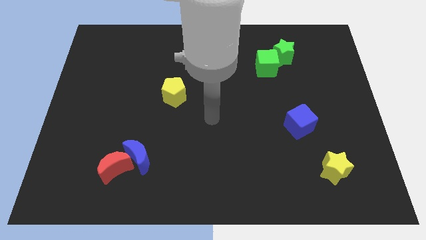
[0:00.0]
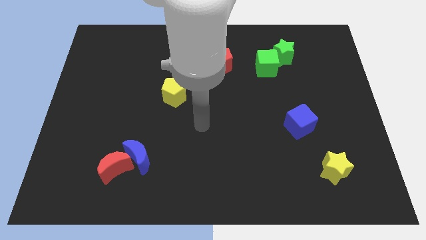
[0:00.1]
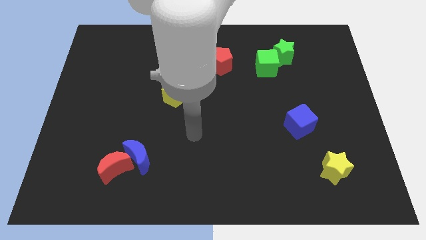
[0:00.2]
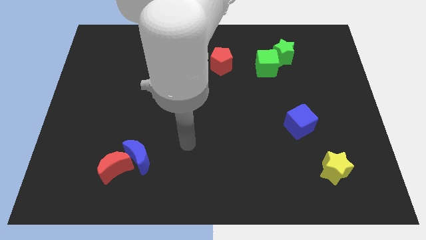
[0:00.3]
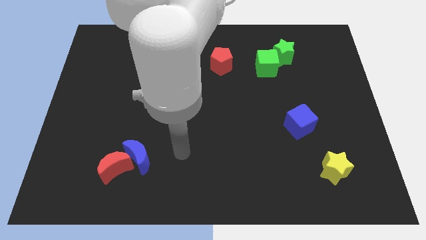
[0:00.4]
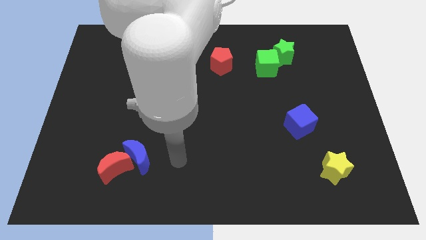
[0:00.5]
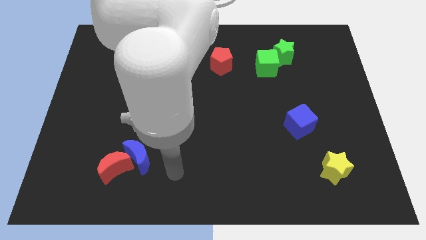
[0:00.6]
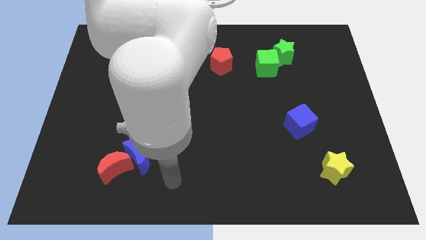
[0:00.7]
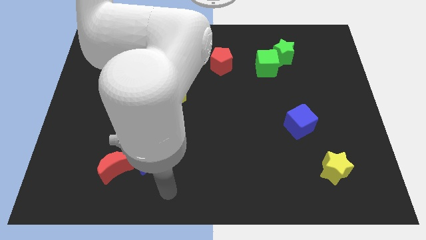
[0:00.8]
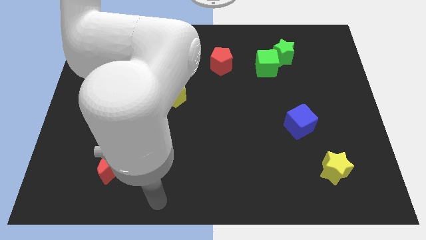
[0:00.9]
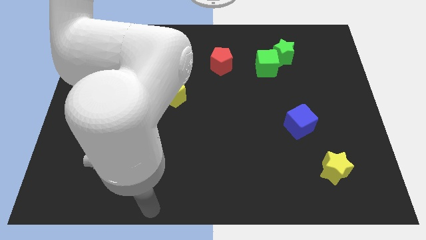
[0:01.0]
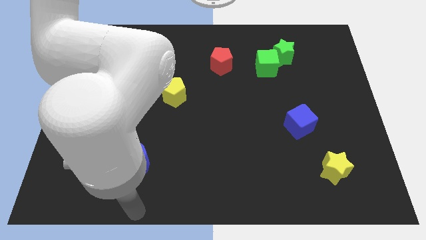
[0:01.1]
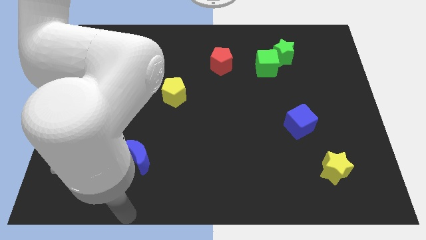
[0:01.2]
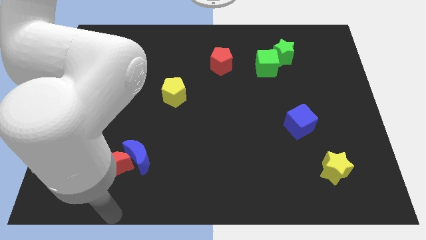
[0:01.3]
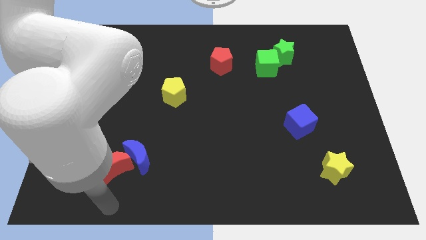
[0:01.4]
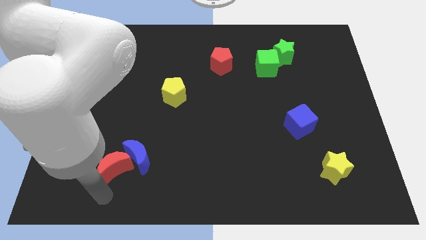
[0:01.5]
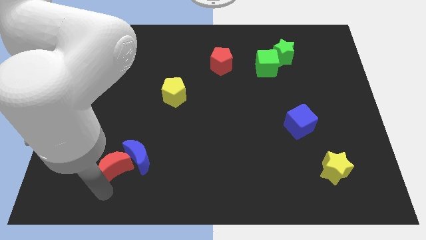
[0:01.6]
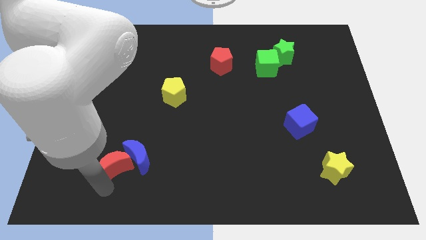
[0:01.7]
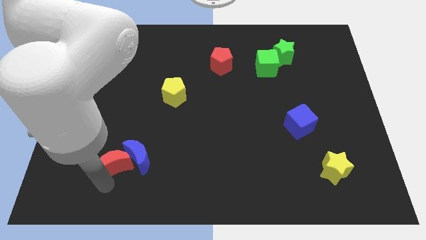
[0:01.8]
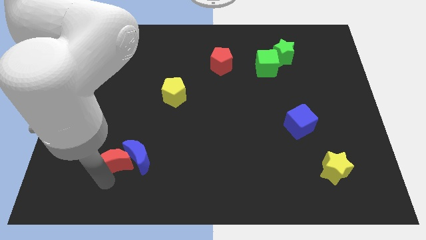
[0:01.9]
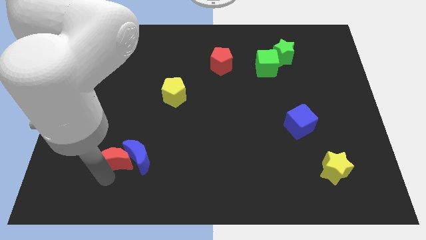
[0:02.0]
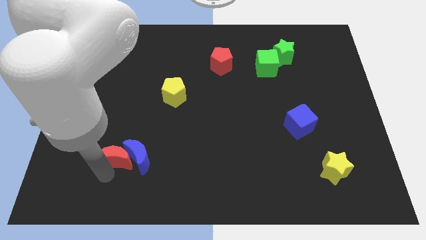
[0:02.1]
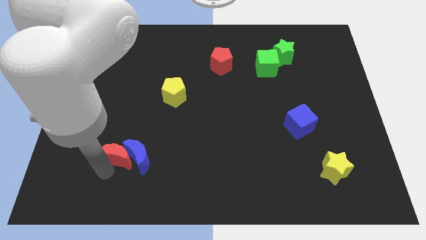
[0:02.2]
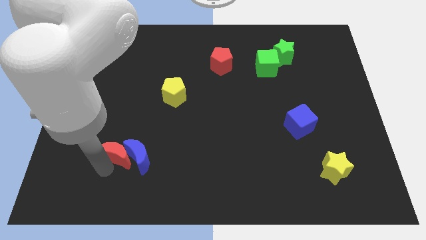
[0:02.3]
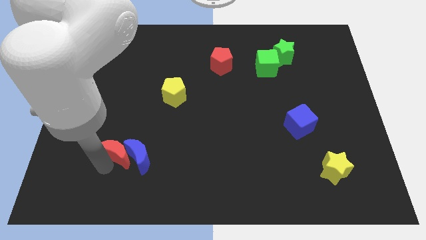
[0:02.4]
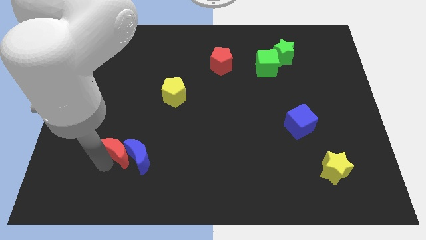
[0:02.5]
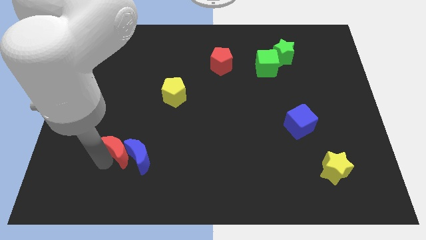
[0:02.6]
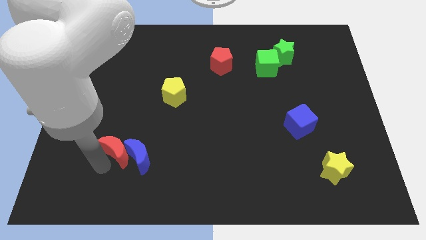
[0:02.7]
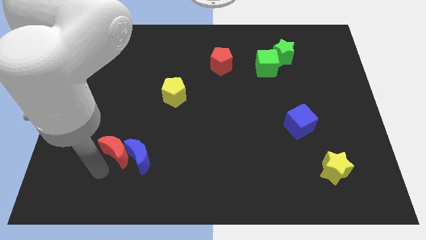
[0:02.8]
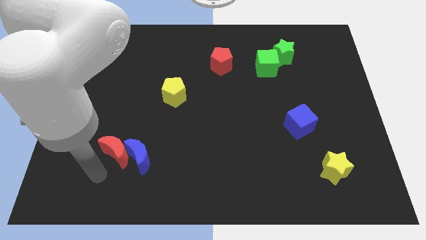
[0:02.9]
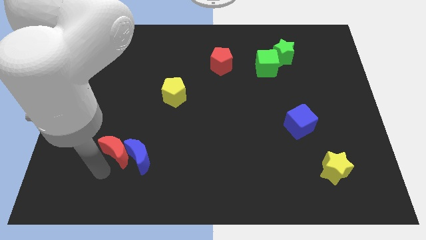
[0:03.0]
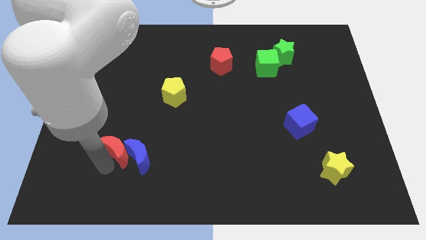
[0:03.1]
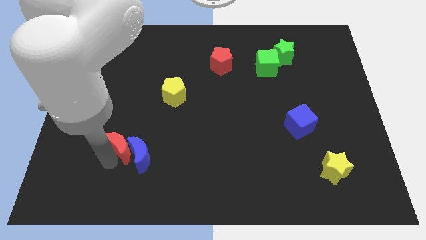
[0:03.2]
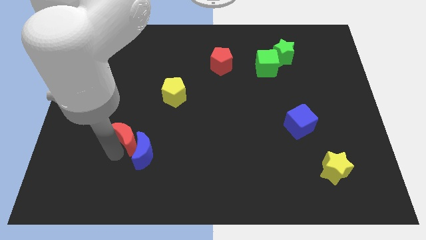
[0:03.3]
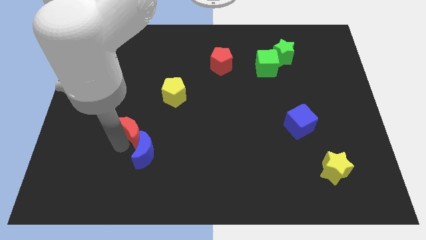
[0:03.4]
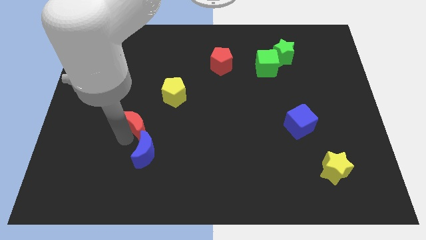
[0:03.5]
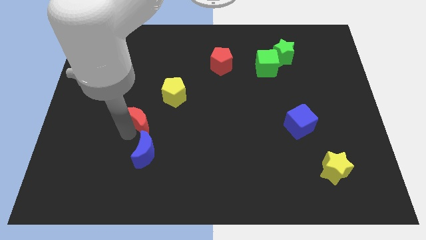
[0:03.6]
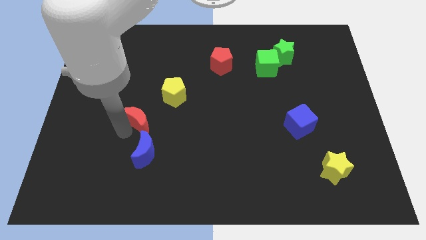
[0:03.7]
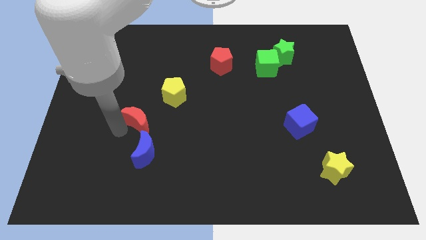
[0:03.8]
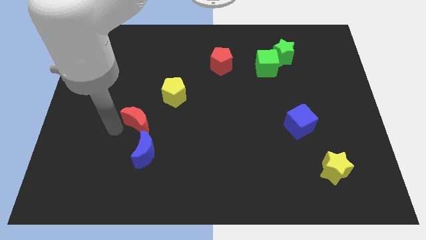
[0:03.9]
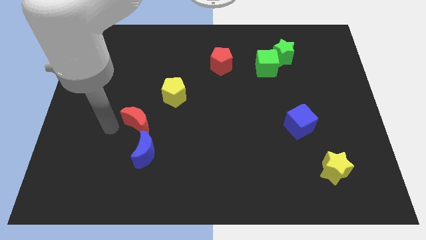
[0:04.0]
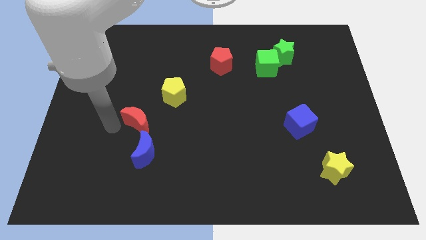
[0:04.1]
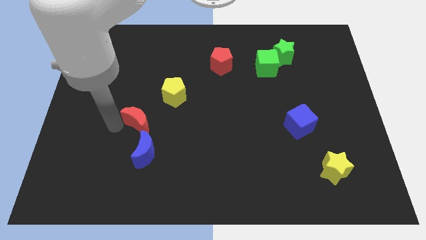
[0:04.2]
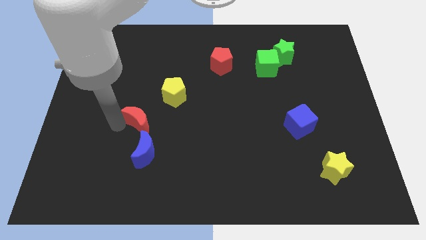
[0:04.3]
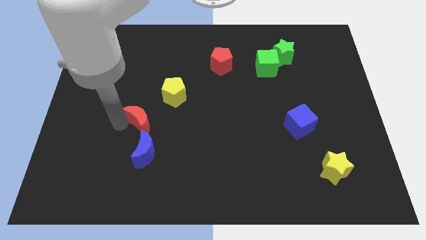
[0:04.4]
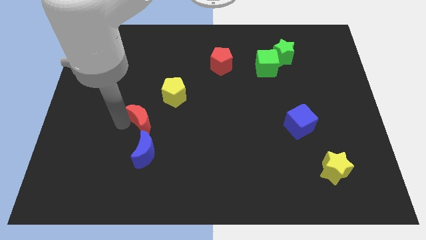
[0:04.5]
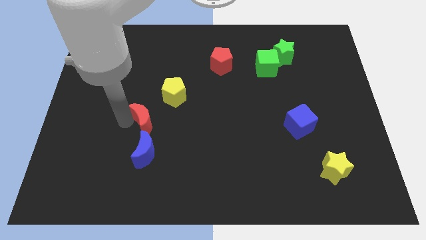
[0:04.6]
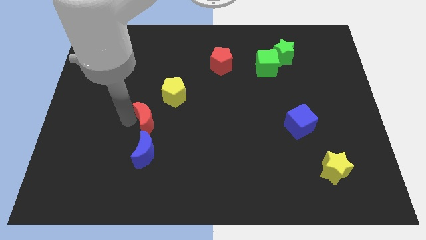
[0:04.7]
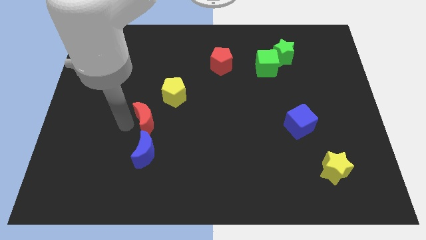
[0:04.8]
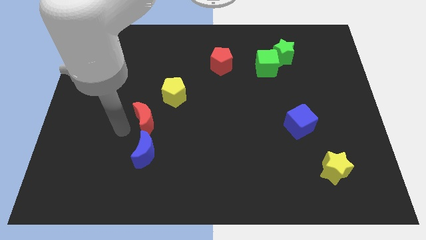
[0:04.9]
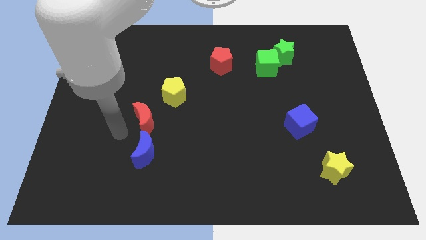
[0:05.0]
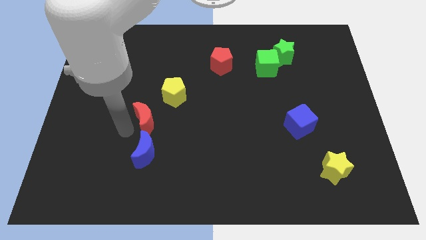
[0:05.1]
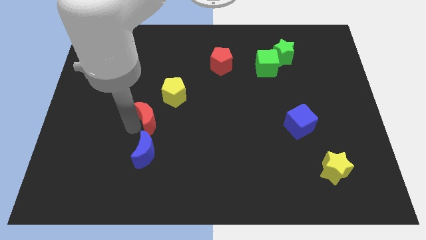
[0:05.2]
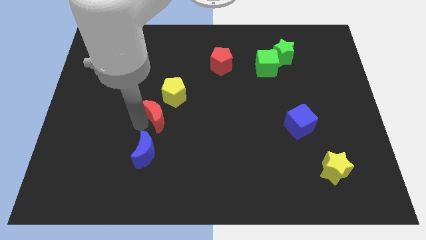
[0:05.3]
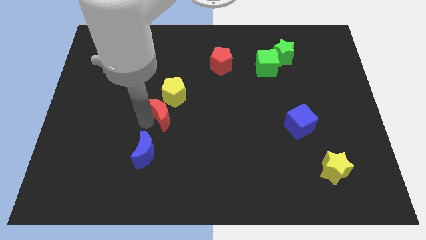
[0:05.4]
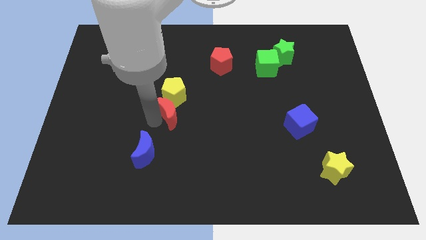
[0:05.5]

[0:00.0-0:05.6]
put the red moon next to the yellow pentagon
